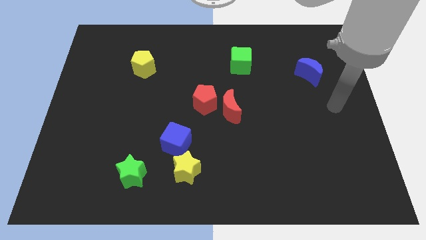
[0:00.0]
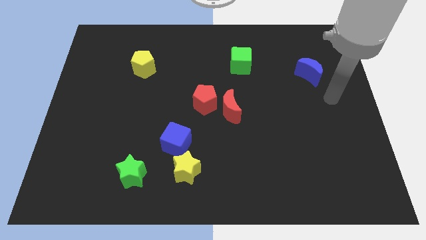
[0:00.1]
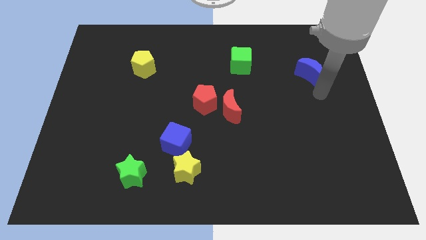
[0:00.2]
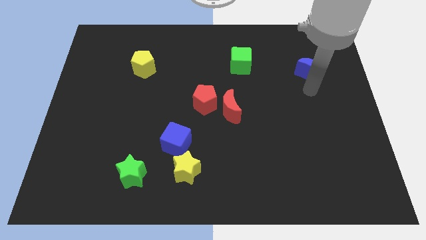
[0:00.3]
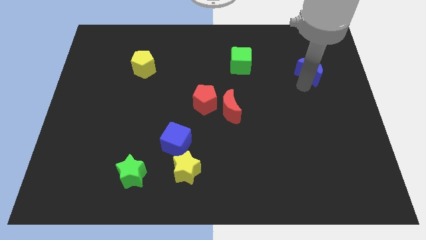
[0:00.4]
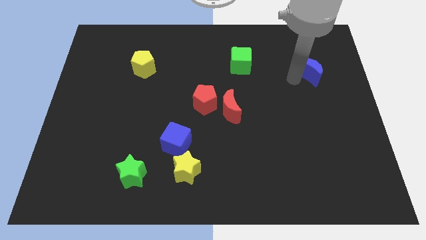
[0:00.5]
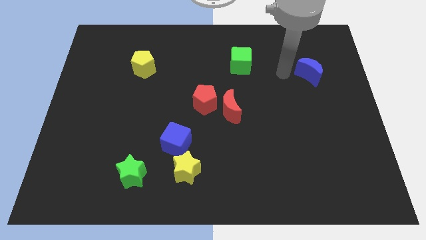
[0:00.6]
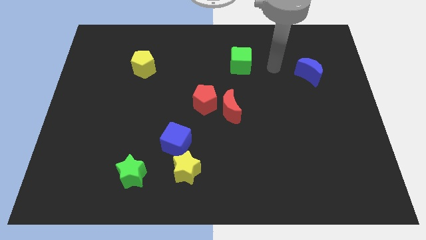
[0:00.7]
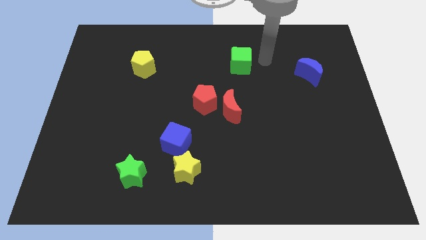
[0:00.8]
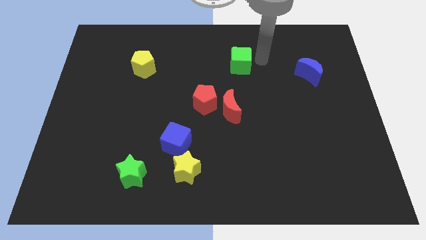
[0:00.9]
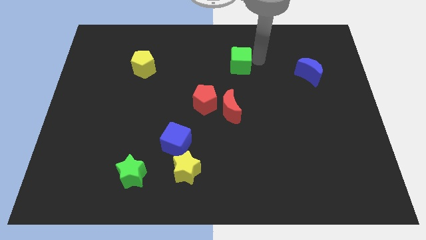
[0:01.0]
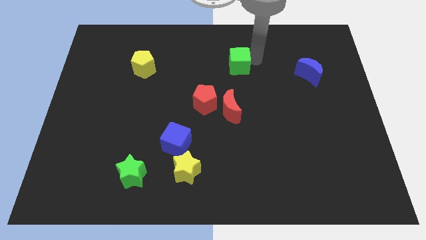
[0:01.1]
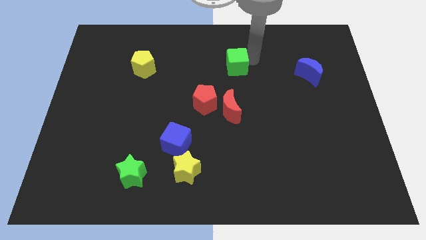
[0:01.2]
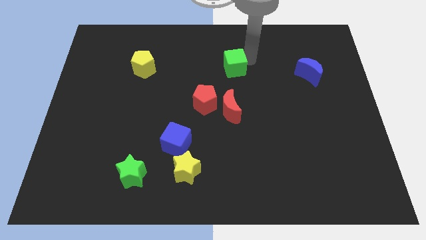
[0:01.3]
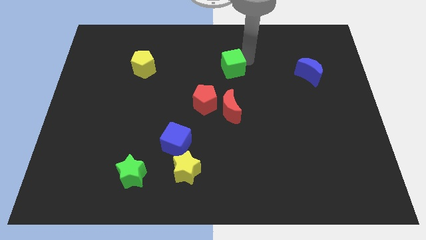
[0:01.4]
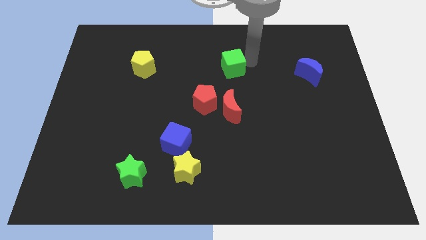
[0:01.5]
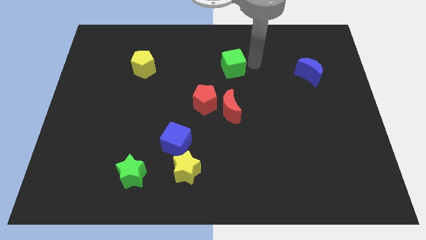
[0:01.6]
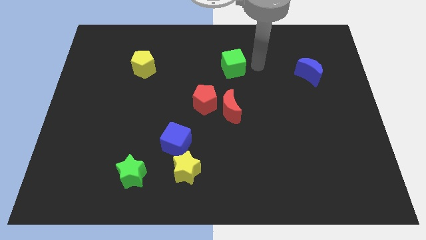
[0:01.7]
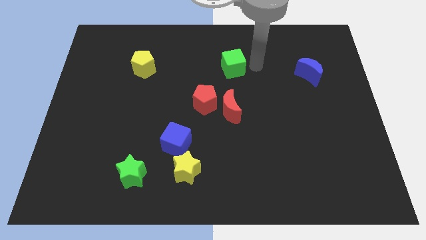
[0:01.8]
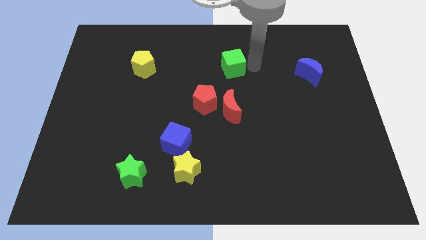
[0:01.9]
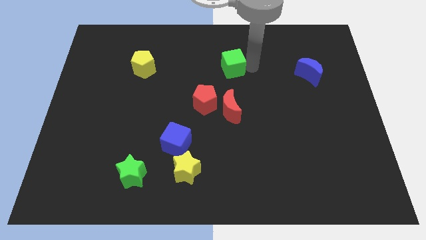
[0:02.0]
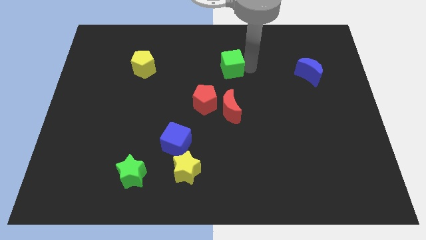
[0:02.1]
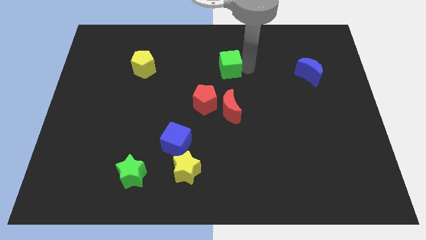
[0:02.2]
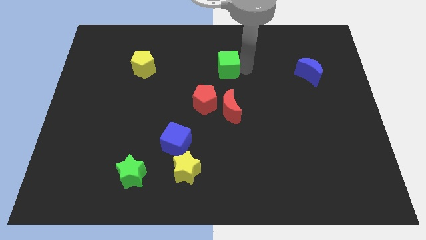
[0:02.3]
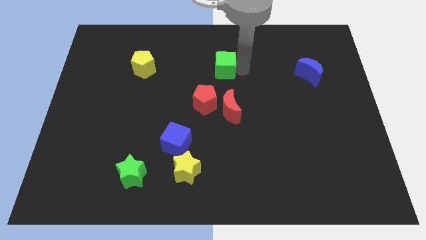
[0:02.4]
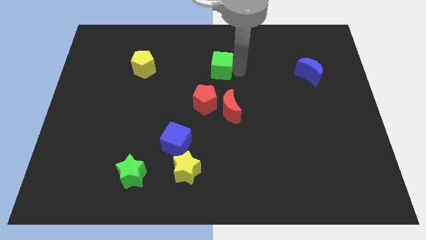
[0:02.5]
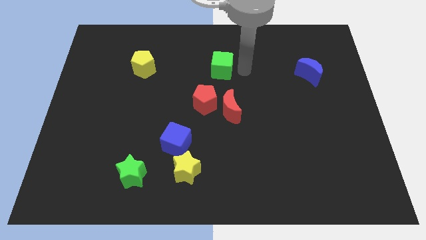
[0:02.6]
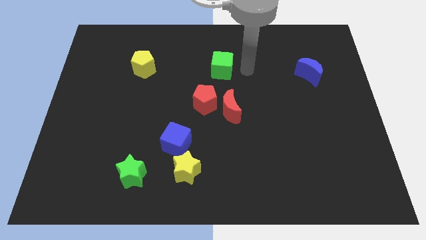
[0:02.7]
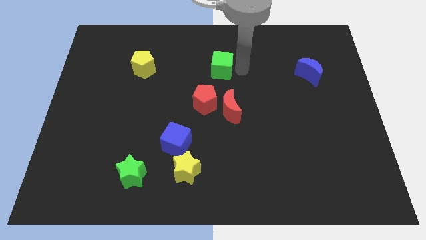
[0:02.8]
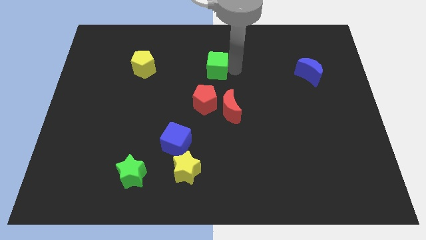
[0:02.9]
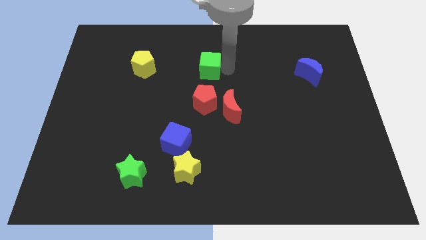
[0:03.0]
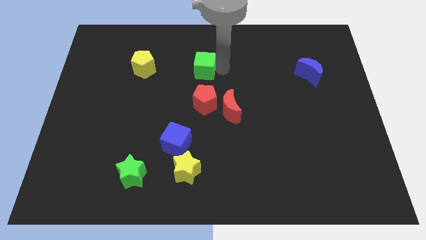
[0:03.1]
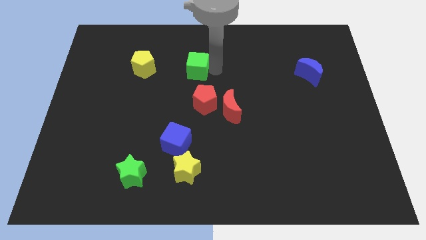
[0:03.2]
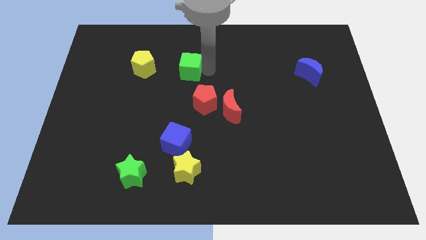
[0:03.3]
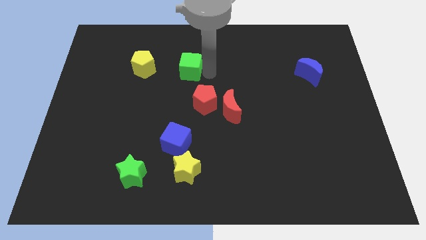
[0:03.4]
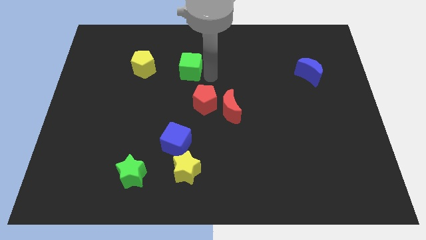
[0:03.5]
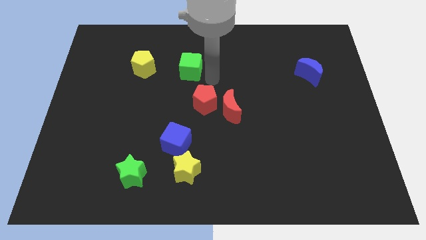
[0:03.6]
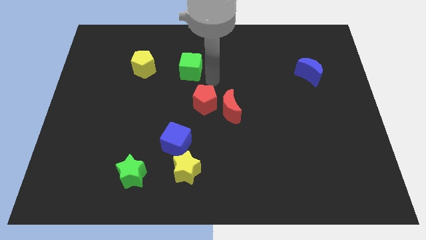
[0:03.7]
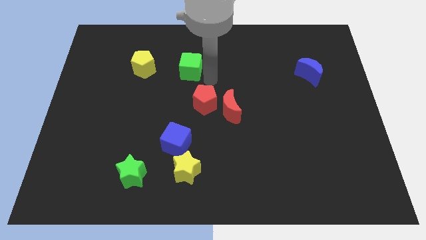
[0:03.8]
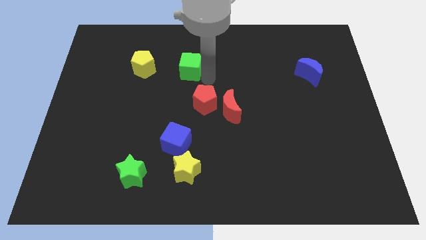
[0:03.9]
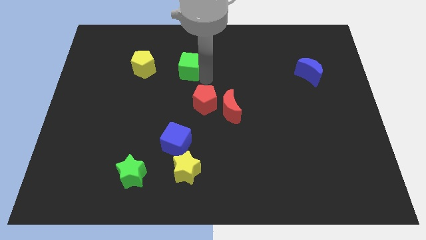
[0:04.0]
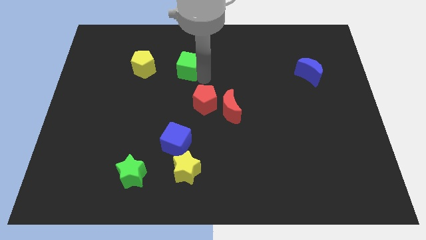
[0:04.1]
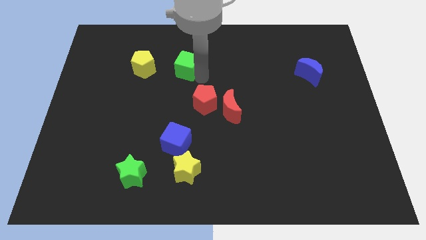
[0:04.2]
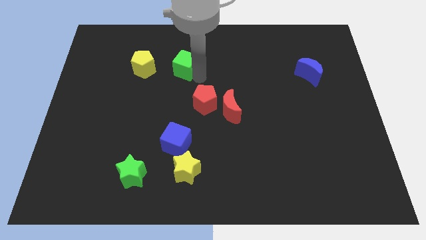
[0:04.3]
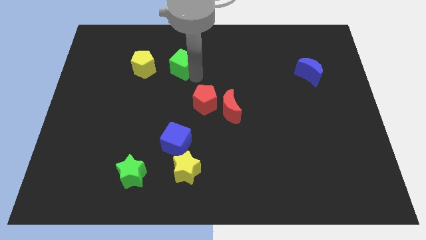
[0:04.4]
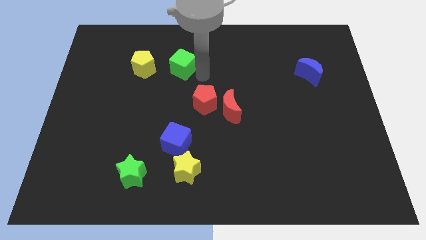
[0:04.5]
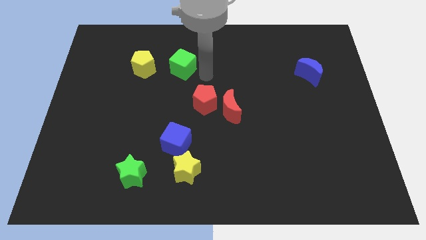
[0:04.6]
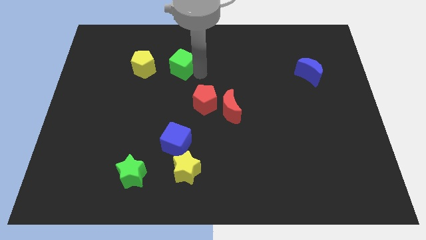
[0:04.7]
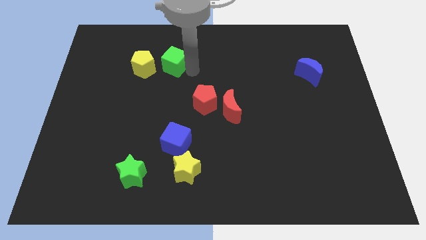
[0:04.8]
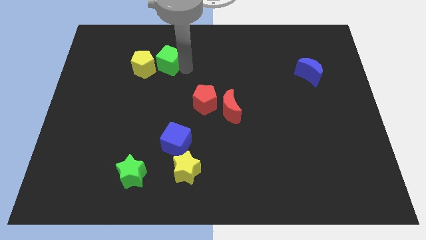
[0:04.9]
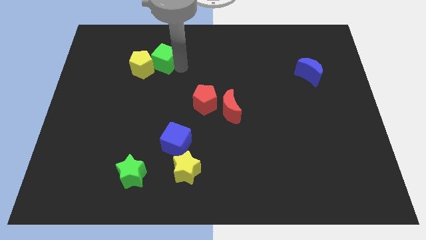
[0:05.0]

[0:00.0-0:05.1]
move the green cube to the left

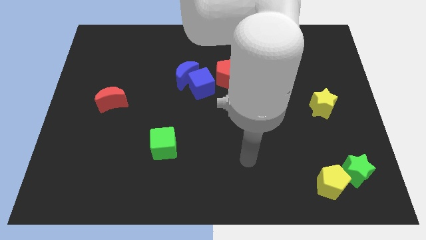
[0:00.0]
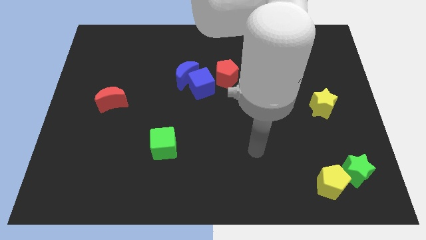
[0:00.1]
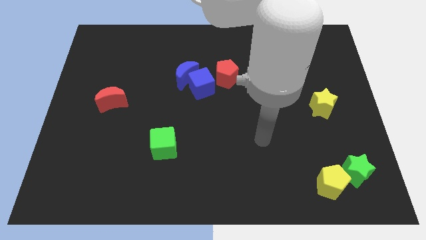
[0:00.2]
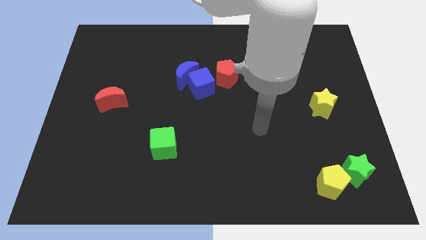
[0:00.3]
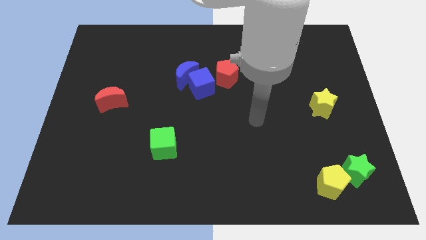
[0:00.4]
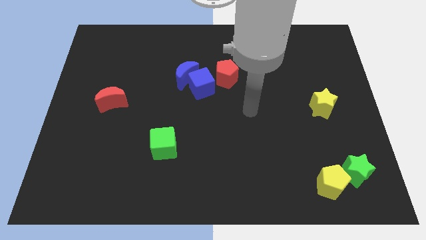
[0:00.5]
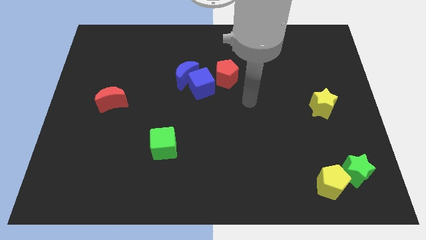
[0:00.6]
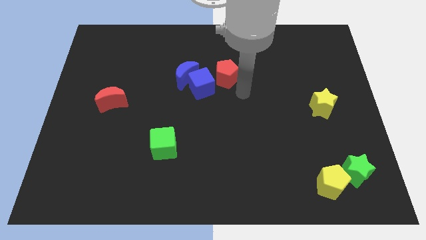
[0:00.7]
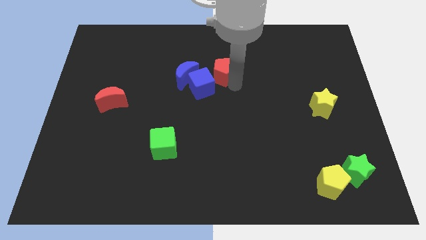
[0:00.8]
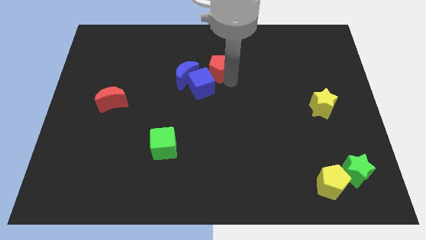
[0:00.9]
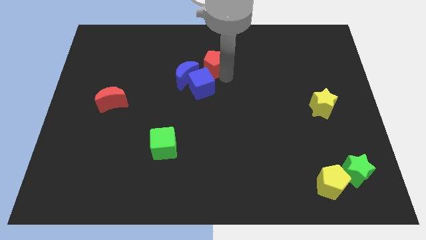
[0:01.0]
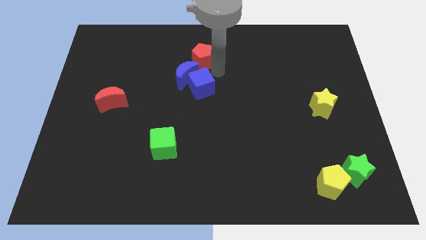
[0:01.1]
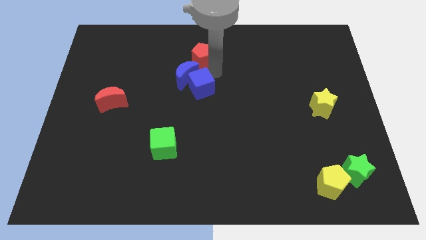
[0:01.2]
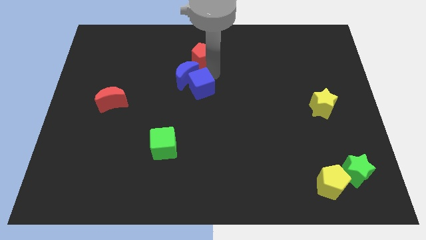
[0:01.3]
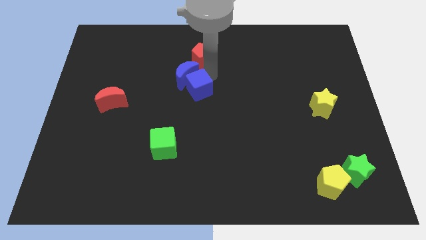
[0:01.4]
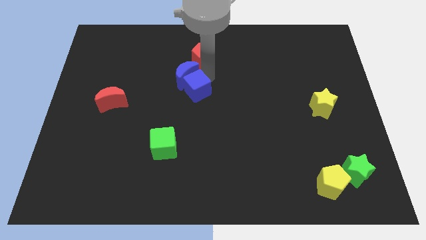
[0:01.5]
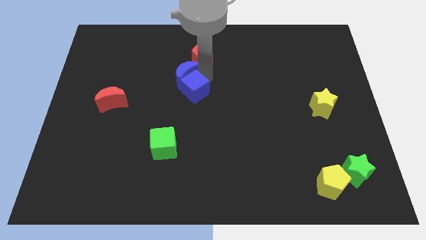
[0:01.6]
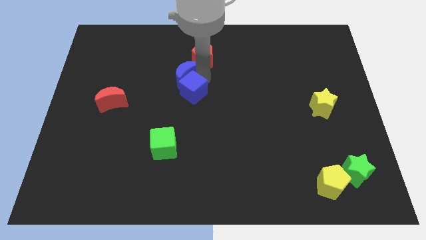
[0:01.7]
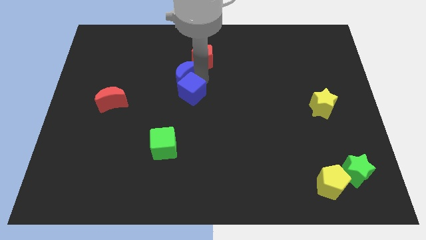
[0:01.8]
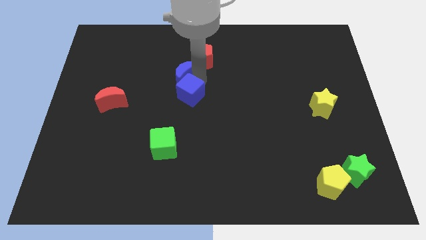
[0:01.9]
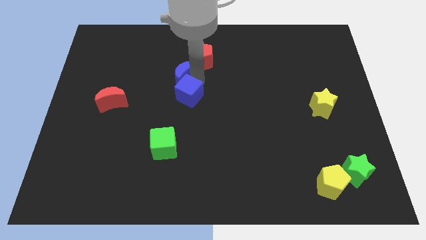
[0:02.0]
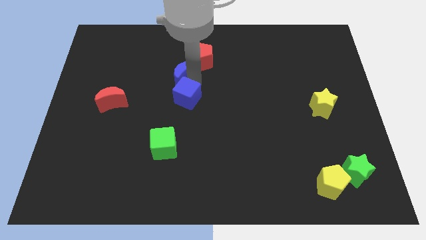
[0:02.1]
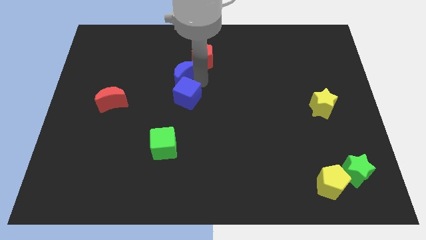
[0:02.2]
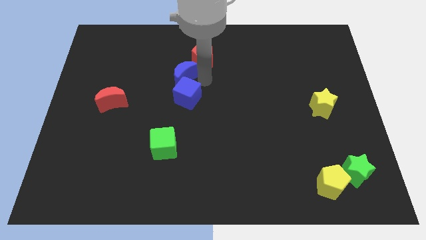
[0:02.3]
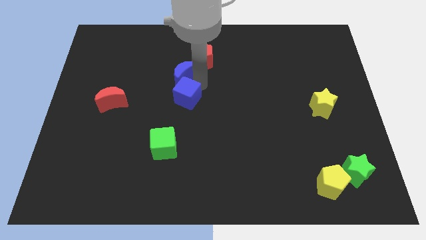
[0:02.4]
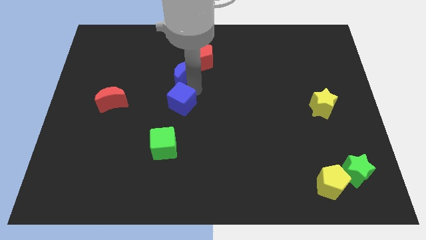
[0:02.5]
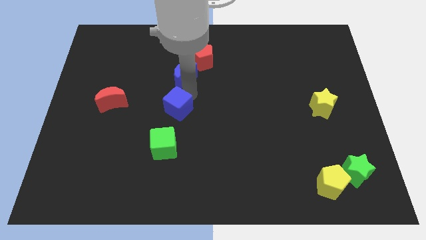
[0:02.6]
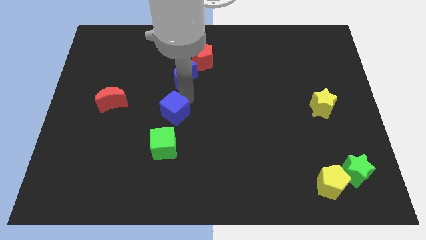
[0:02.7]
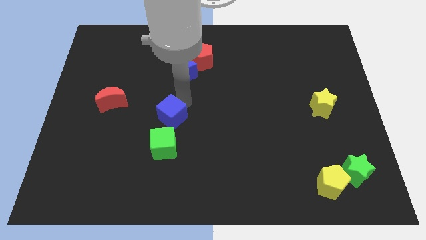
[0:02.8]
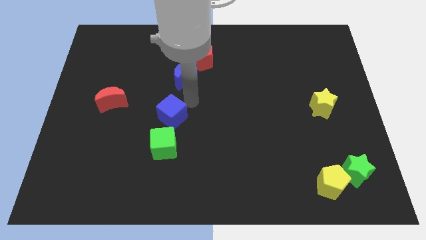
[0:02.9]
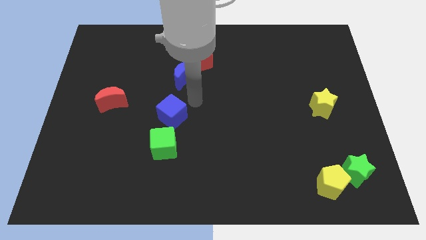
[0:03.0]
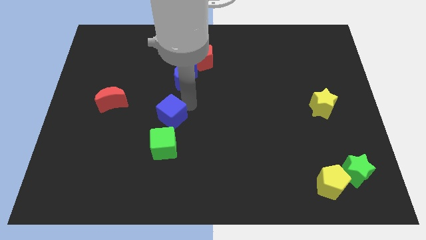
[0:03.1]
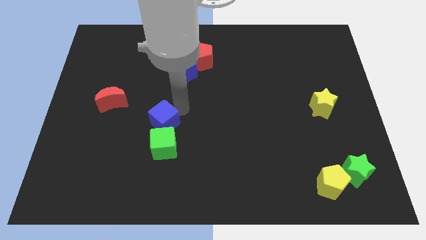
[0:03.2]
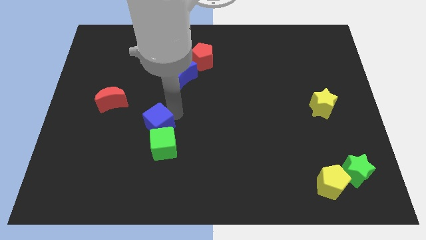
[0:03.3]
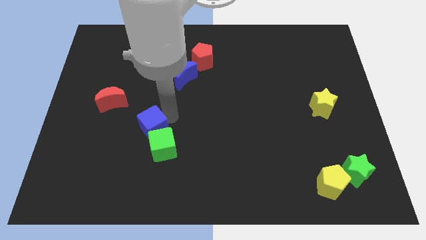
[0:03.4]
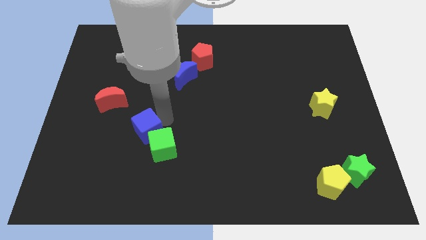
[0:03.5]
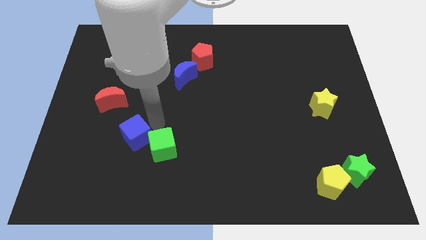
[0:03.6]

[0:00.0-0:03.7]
push the blue cube down and then left
